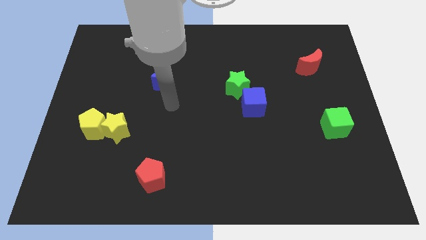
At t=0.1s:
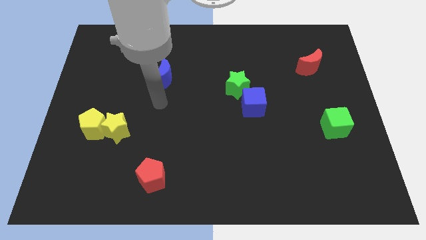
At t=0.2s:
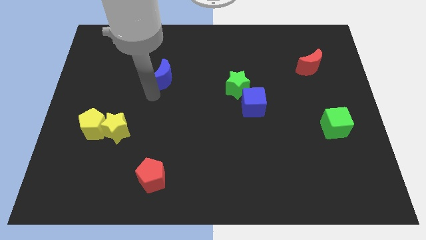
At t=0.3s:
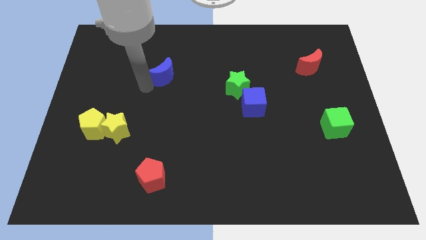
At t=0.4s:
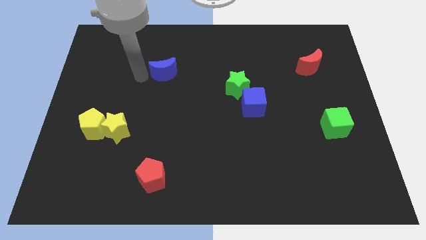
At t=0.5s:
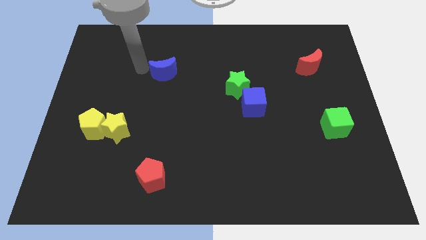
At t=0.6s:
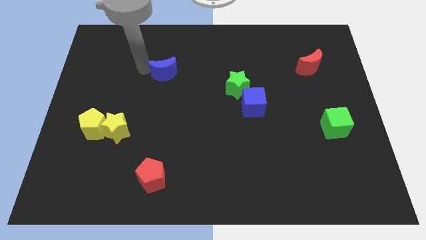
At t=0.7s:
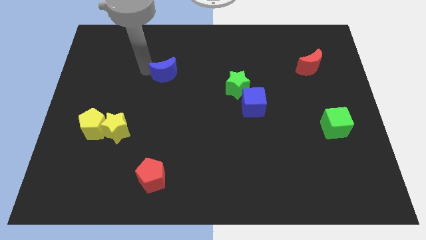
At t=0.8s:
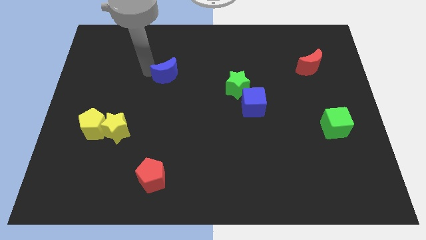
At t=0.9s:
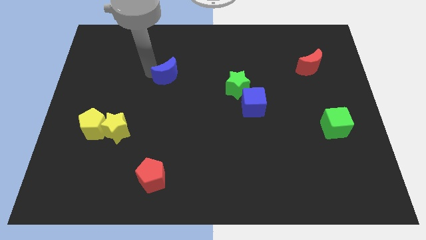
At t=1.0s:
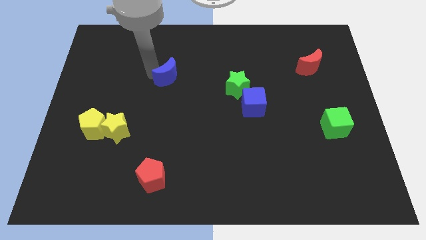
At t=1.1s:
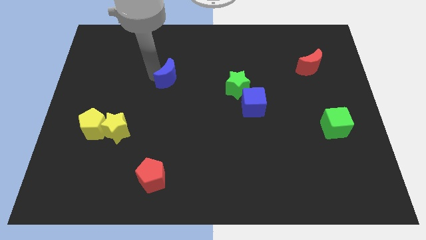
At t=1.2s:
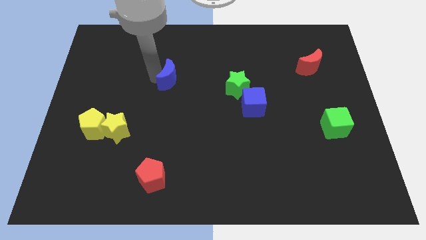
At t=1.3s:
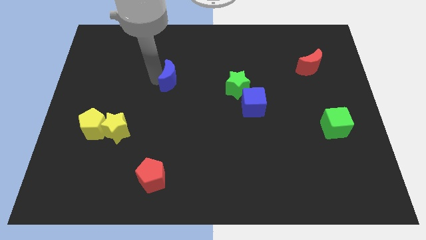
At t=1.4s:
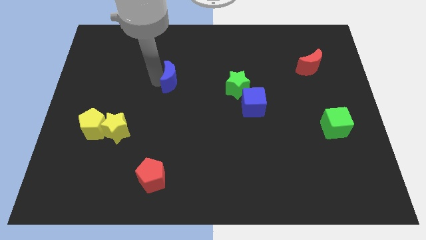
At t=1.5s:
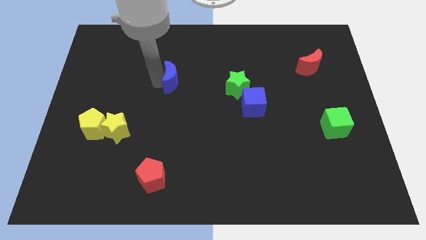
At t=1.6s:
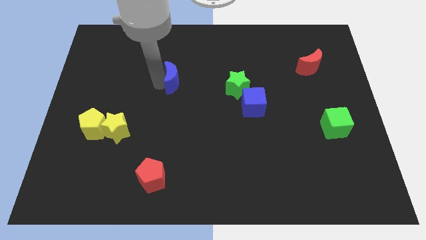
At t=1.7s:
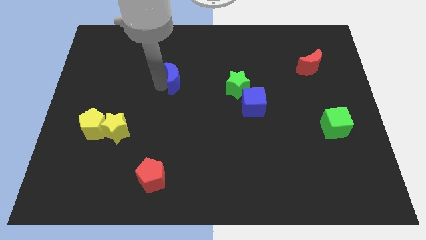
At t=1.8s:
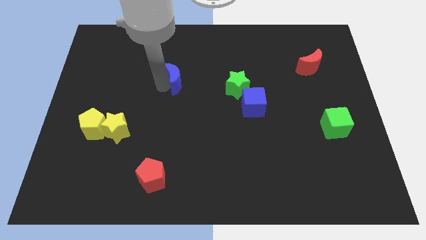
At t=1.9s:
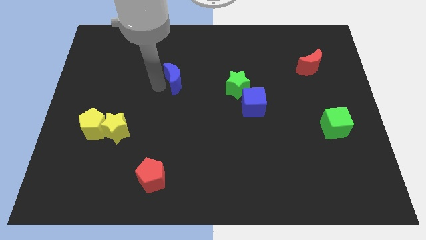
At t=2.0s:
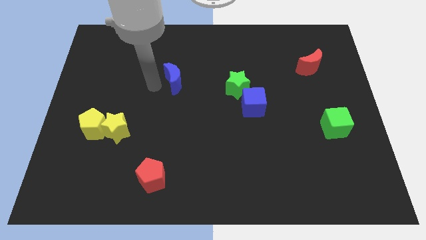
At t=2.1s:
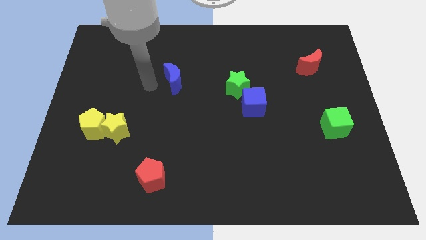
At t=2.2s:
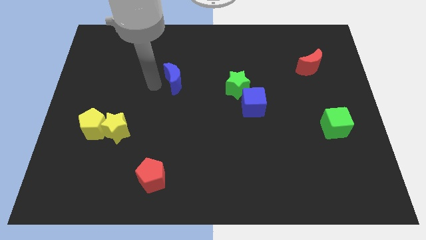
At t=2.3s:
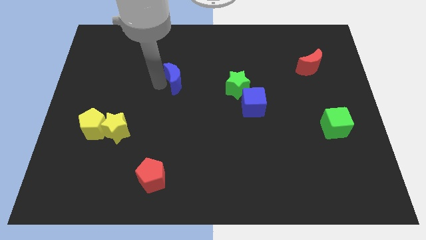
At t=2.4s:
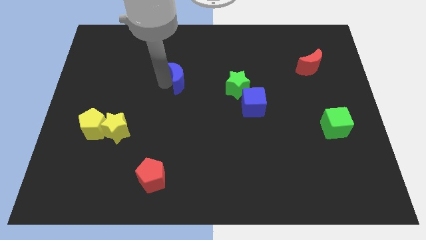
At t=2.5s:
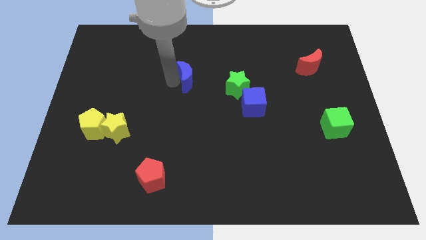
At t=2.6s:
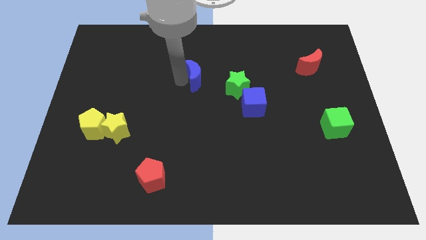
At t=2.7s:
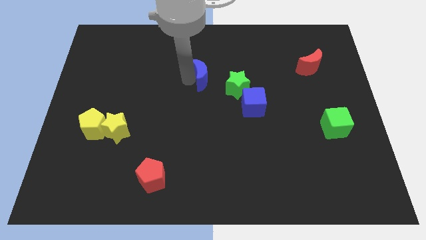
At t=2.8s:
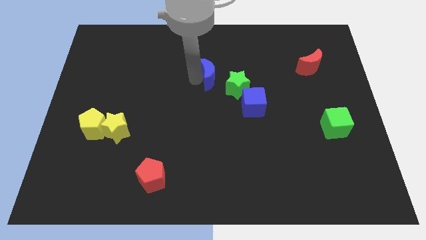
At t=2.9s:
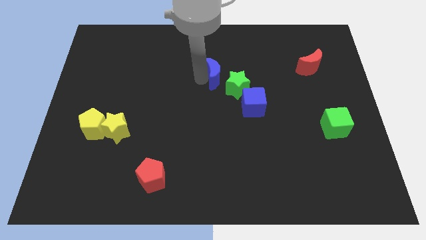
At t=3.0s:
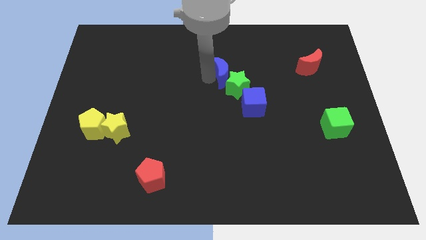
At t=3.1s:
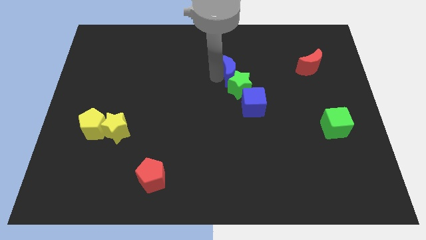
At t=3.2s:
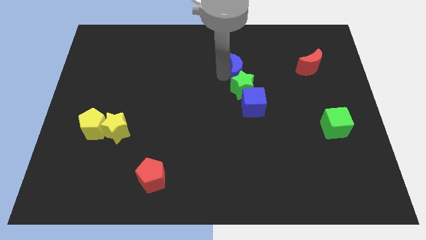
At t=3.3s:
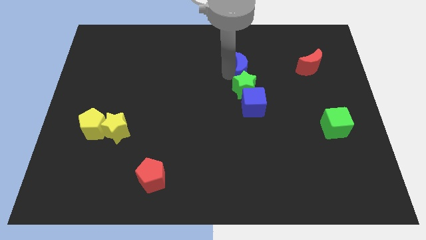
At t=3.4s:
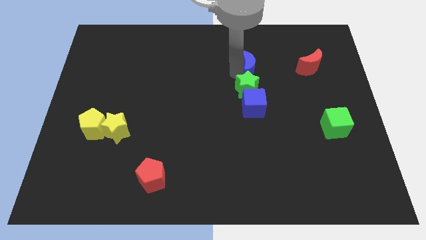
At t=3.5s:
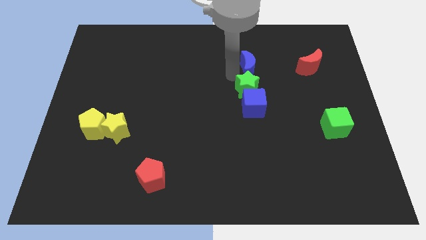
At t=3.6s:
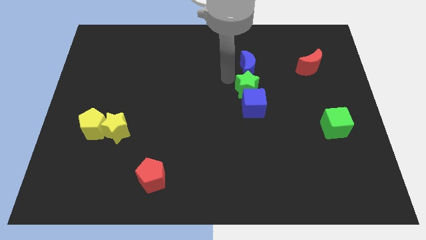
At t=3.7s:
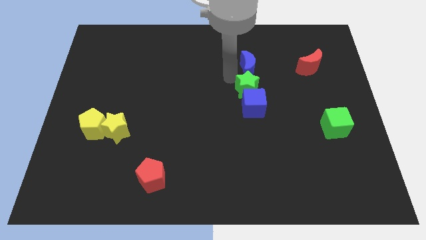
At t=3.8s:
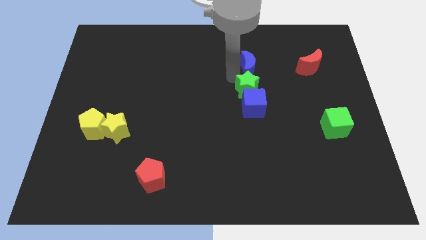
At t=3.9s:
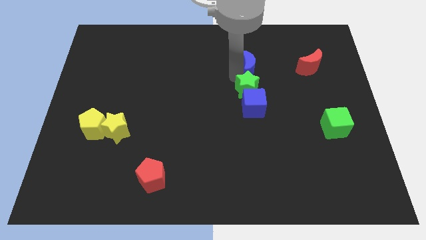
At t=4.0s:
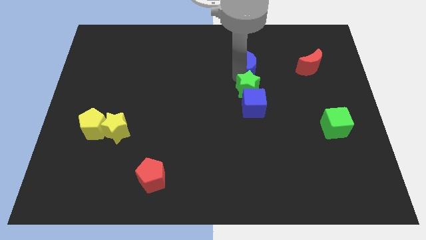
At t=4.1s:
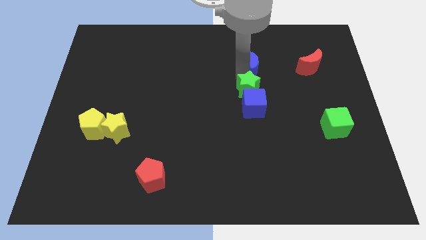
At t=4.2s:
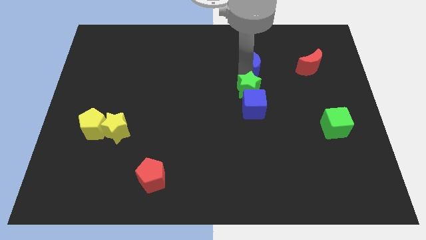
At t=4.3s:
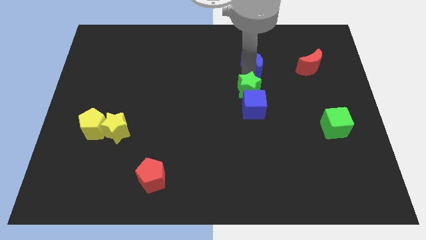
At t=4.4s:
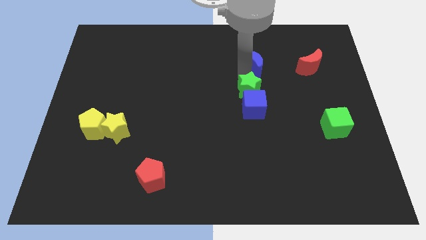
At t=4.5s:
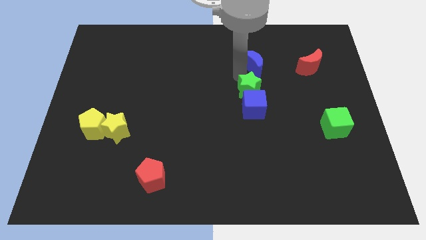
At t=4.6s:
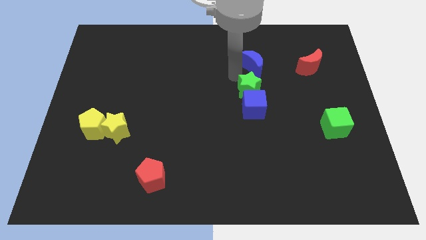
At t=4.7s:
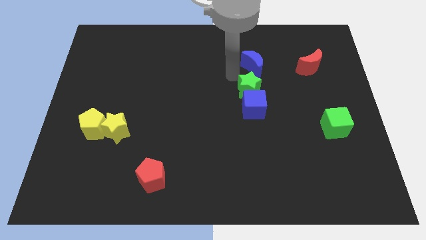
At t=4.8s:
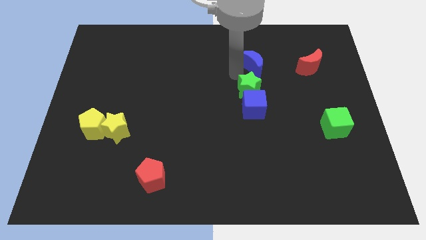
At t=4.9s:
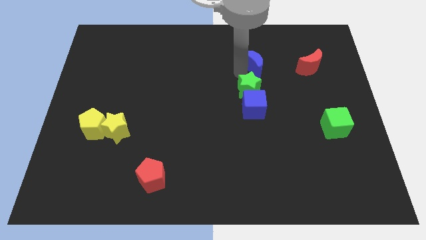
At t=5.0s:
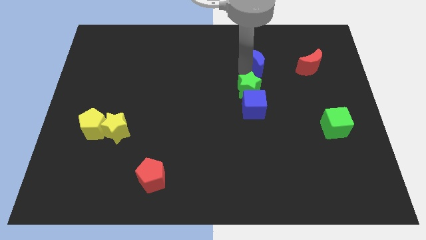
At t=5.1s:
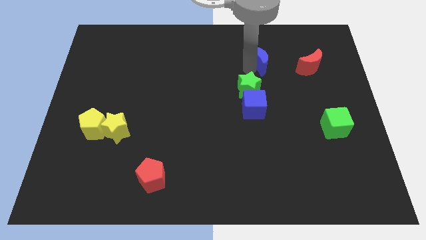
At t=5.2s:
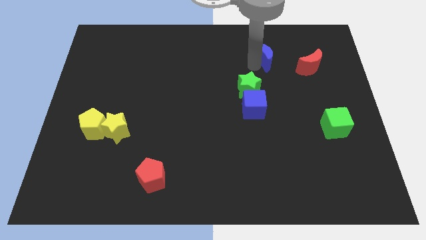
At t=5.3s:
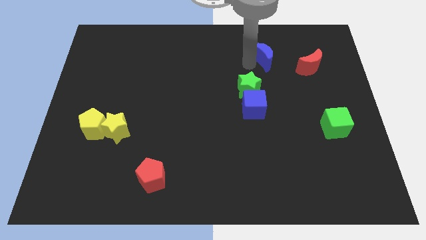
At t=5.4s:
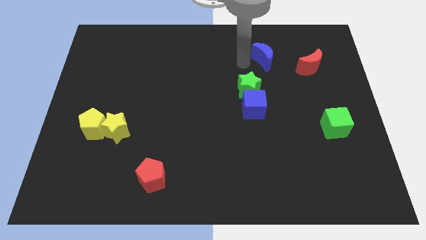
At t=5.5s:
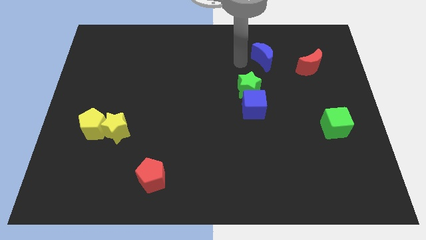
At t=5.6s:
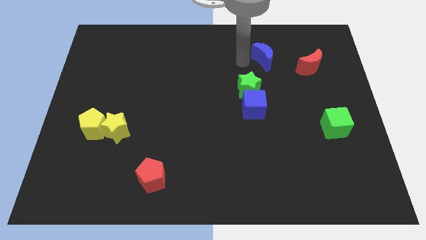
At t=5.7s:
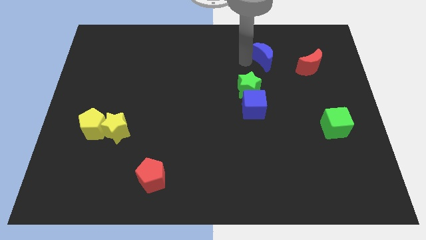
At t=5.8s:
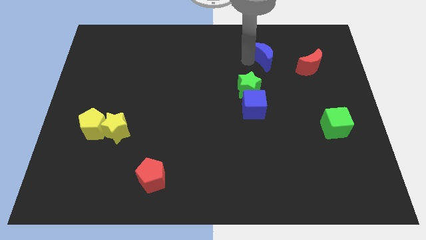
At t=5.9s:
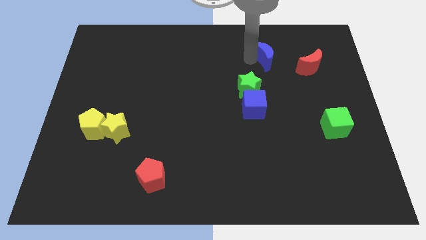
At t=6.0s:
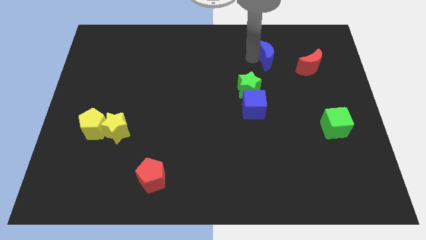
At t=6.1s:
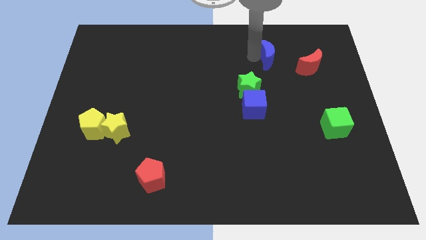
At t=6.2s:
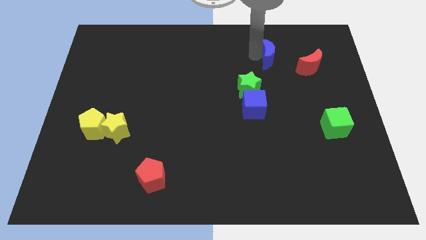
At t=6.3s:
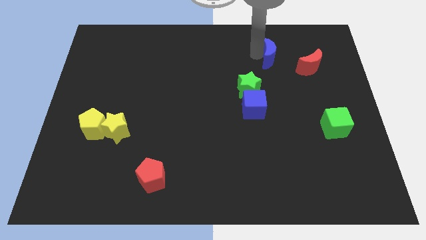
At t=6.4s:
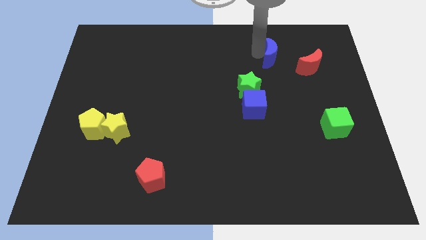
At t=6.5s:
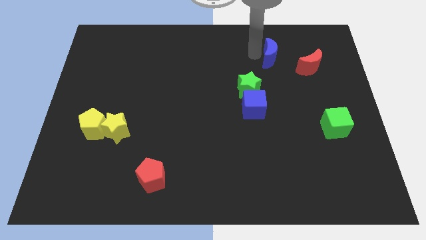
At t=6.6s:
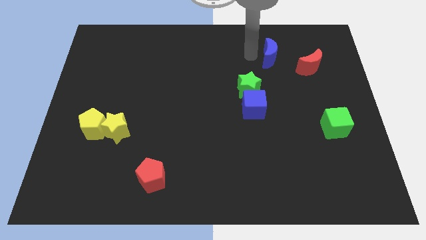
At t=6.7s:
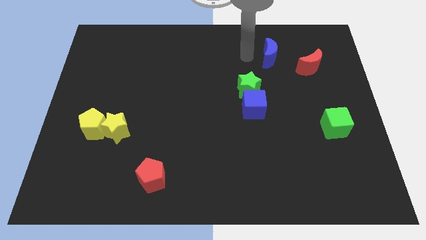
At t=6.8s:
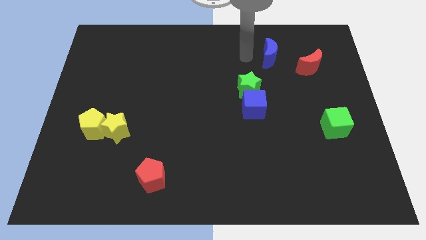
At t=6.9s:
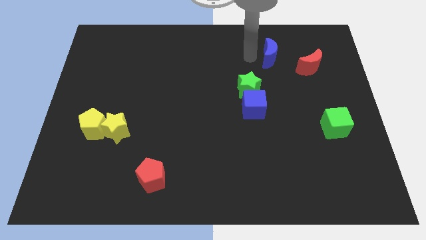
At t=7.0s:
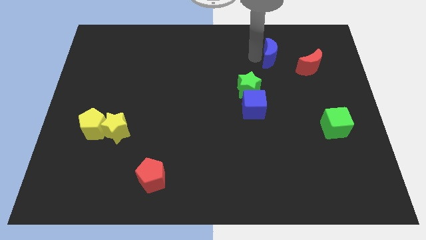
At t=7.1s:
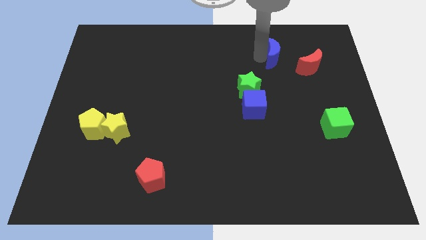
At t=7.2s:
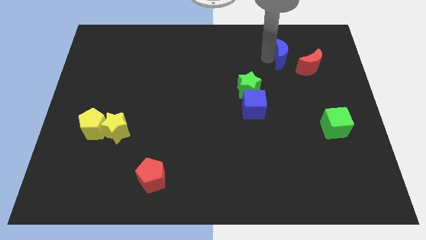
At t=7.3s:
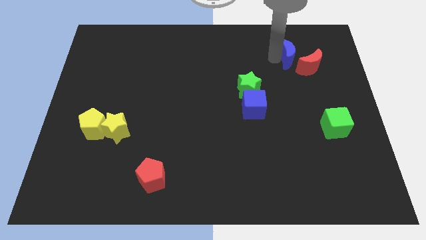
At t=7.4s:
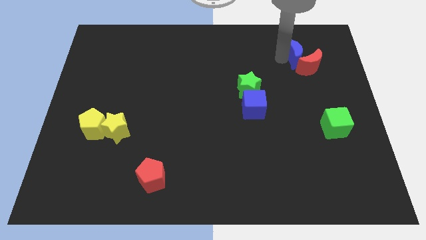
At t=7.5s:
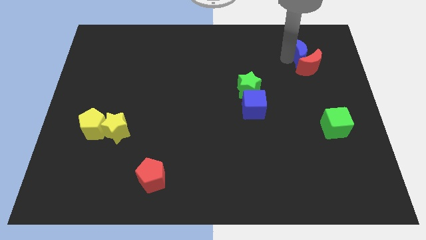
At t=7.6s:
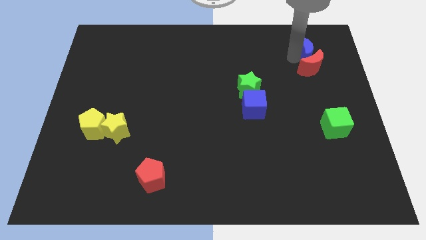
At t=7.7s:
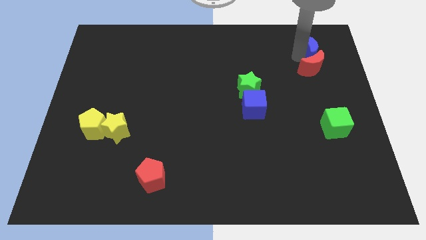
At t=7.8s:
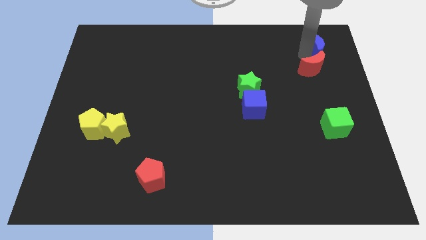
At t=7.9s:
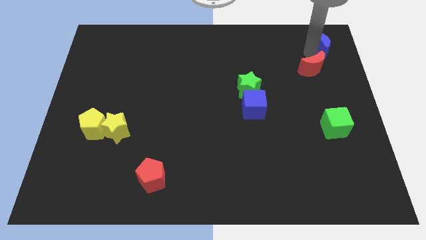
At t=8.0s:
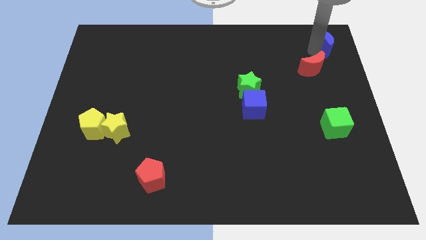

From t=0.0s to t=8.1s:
put the blue moon to the top right corner
